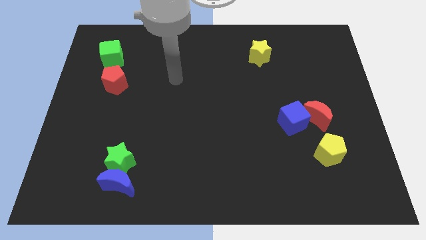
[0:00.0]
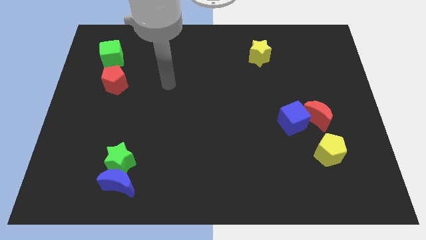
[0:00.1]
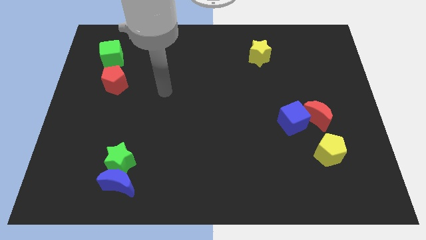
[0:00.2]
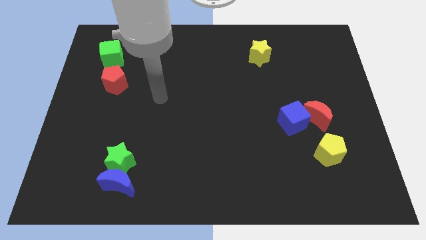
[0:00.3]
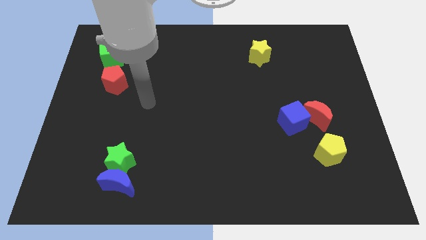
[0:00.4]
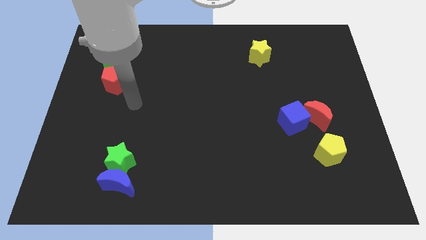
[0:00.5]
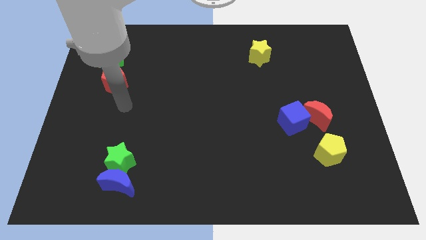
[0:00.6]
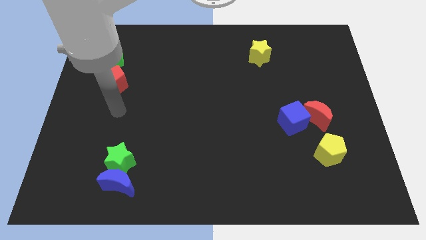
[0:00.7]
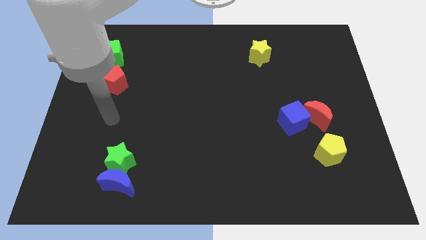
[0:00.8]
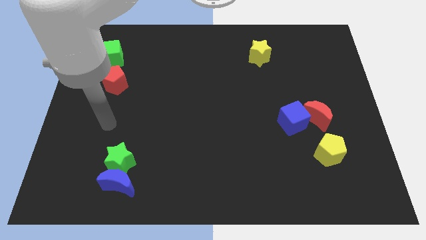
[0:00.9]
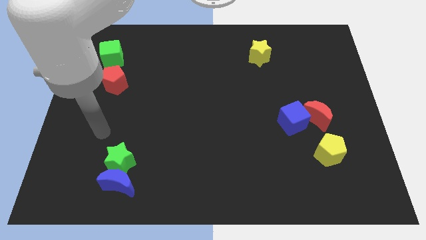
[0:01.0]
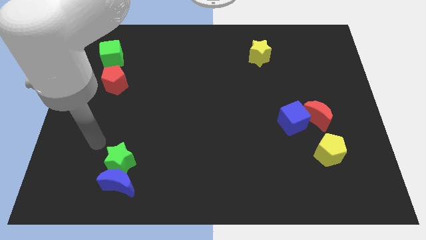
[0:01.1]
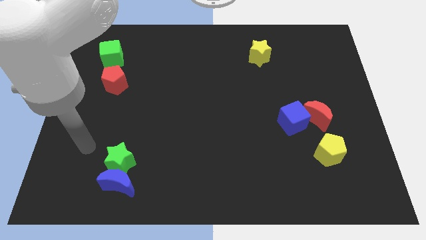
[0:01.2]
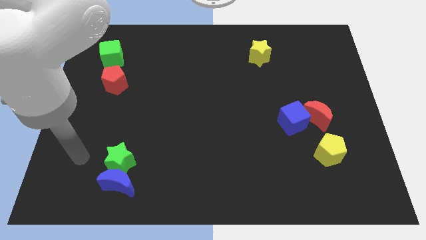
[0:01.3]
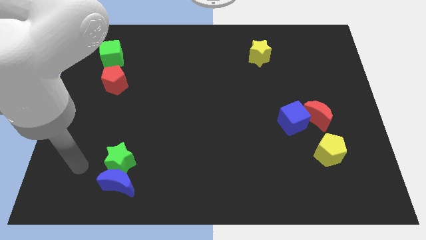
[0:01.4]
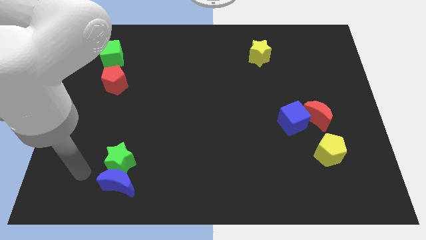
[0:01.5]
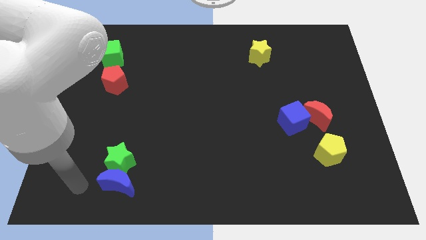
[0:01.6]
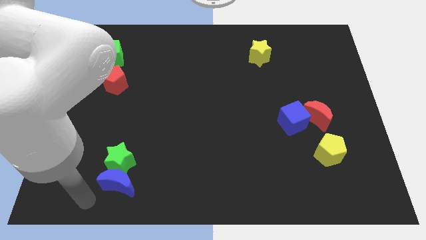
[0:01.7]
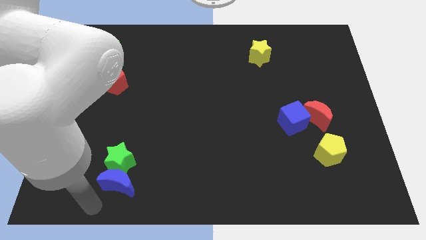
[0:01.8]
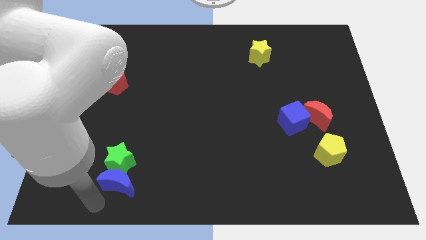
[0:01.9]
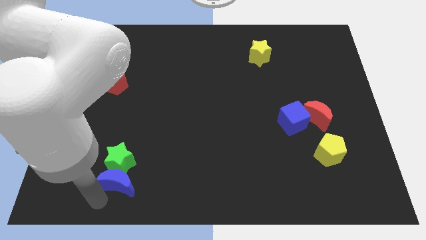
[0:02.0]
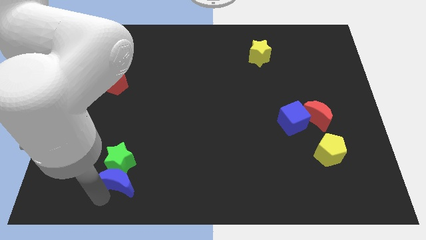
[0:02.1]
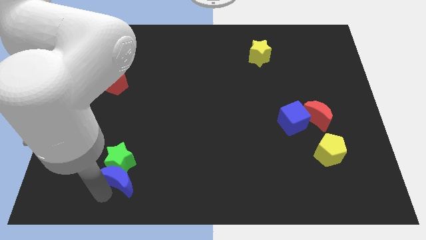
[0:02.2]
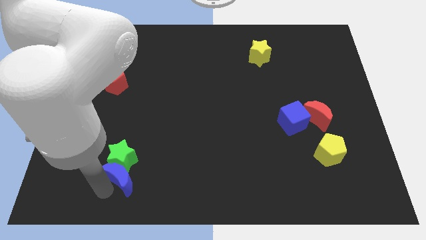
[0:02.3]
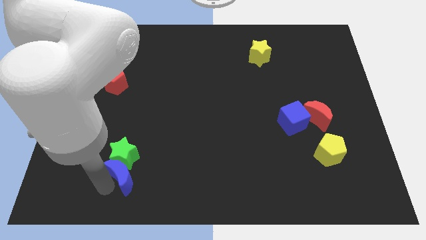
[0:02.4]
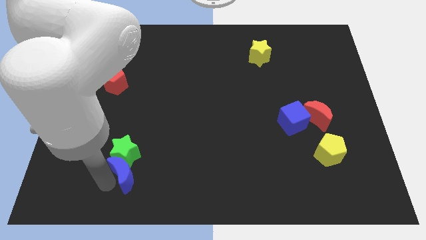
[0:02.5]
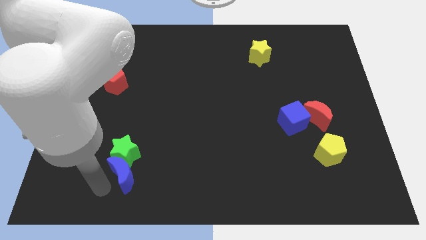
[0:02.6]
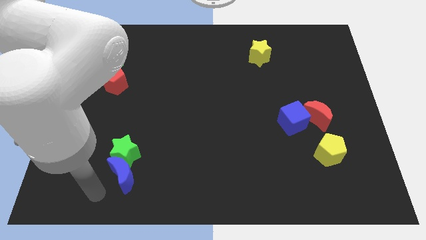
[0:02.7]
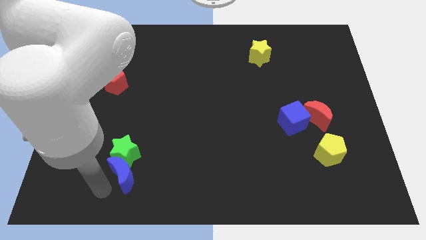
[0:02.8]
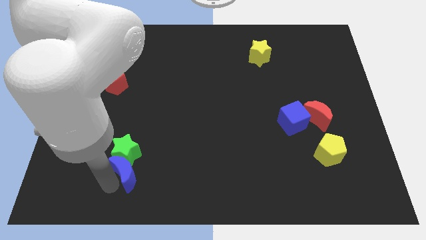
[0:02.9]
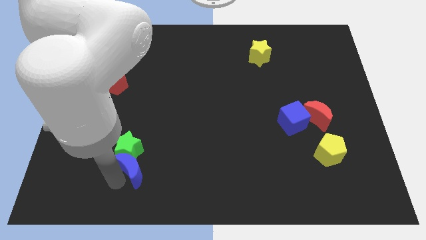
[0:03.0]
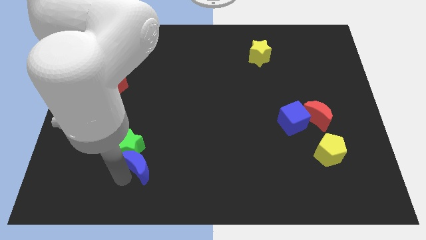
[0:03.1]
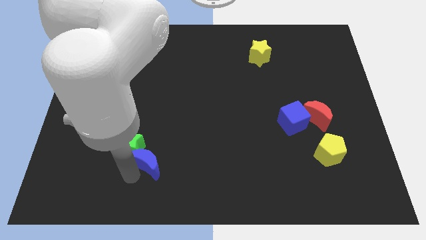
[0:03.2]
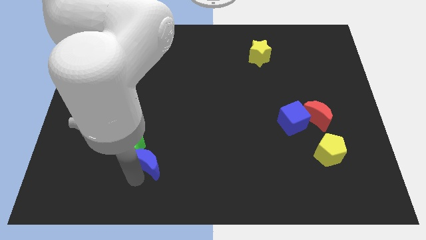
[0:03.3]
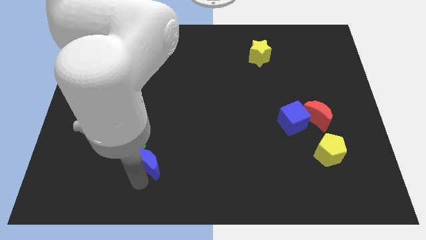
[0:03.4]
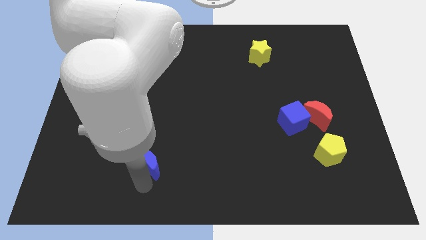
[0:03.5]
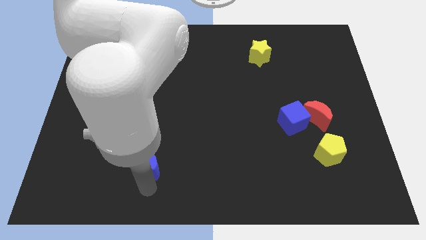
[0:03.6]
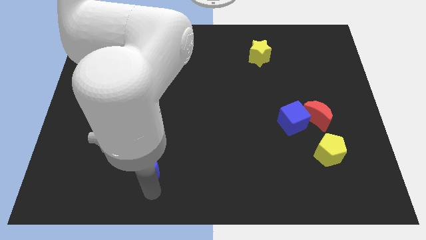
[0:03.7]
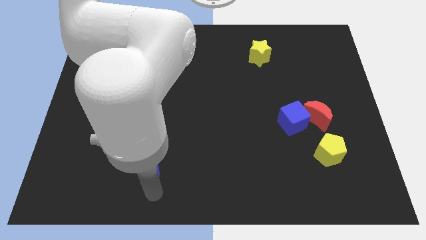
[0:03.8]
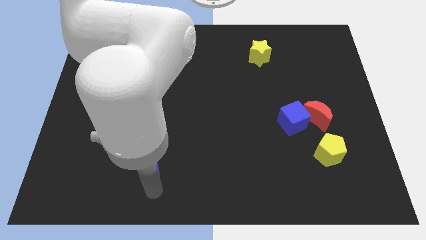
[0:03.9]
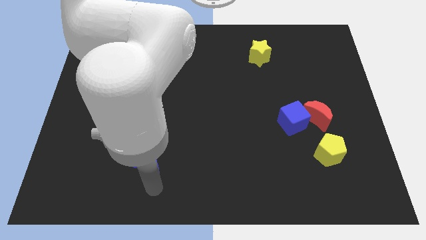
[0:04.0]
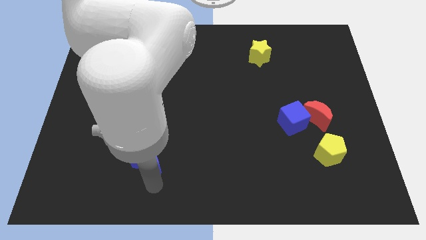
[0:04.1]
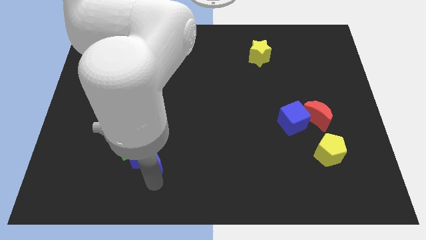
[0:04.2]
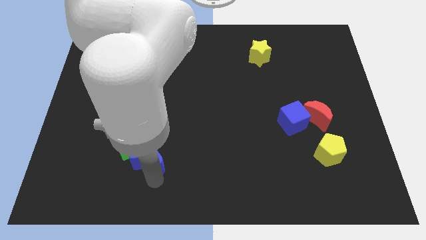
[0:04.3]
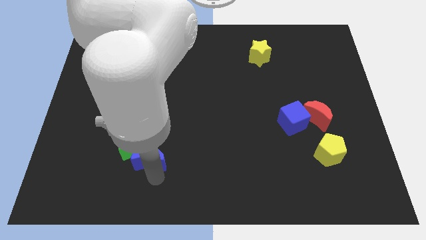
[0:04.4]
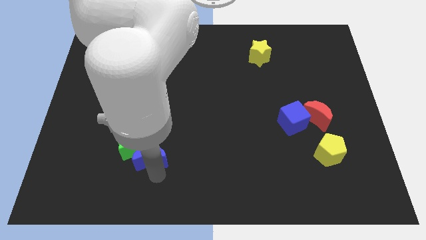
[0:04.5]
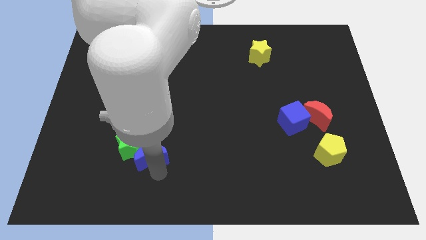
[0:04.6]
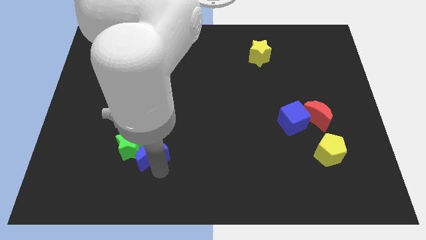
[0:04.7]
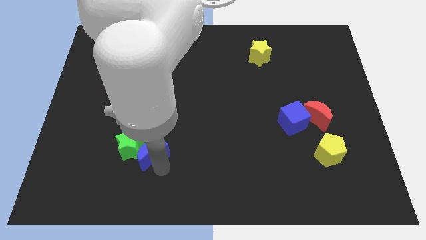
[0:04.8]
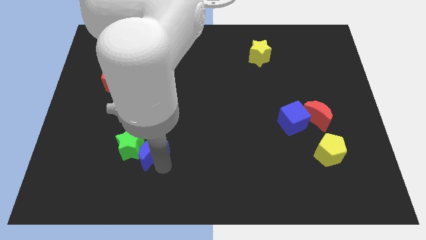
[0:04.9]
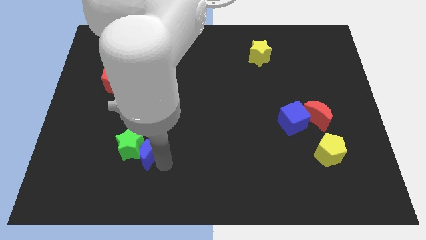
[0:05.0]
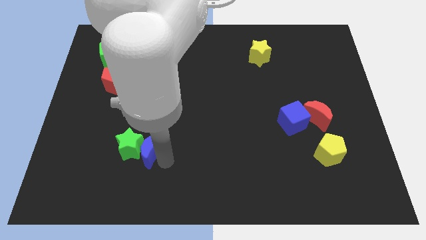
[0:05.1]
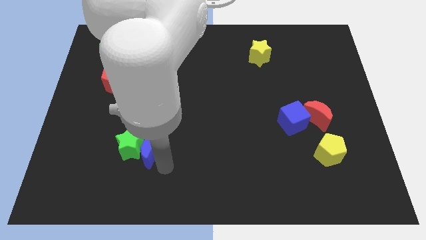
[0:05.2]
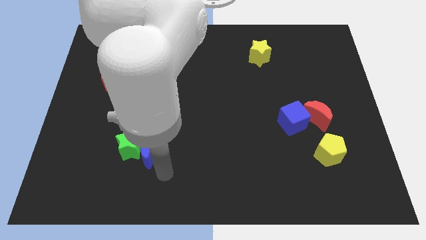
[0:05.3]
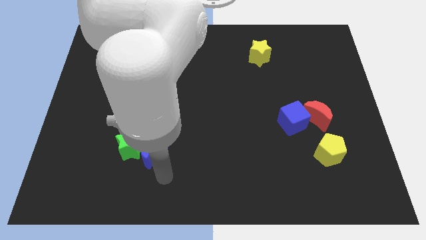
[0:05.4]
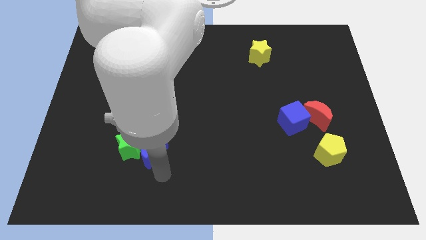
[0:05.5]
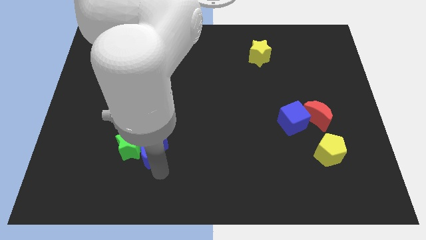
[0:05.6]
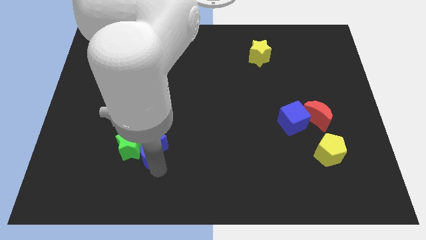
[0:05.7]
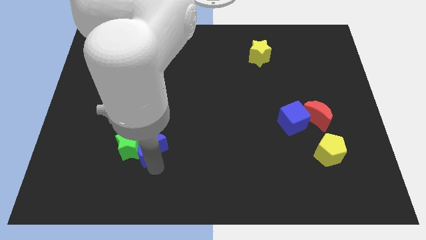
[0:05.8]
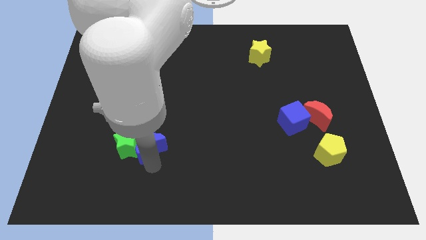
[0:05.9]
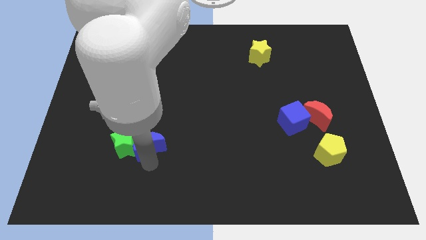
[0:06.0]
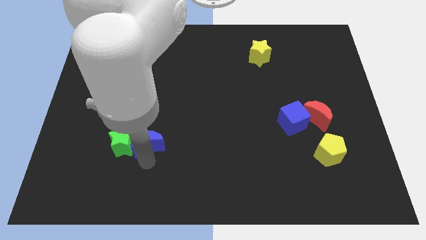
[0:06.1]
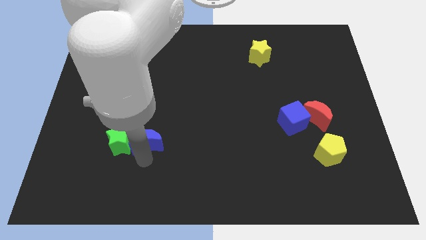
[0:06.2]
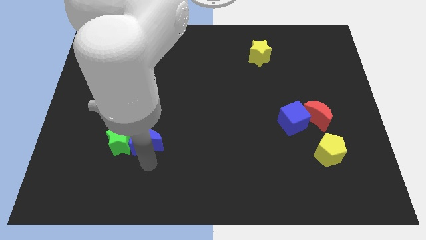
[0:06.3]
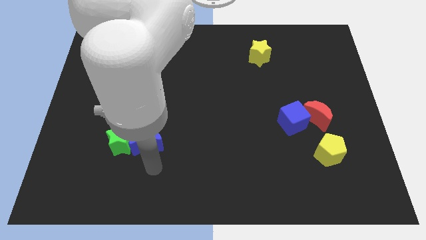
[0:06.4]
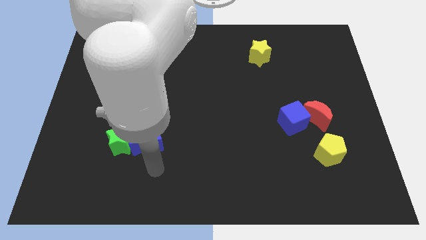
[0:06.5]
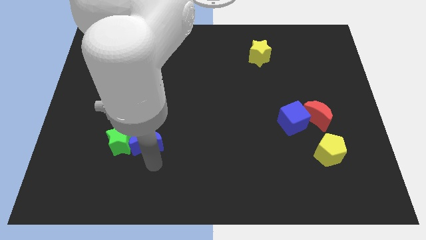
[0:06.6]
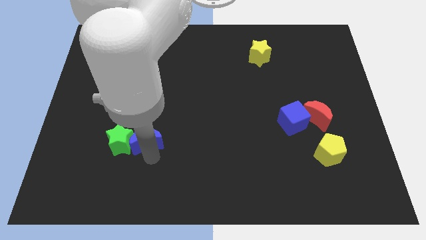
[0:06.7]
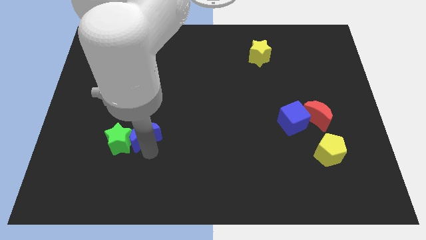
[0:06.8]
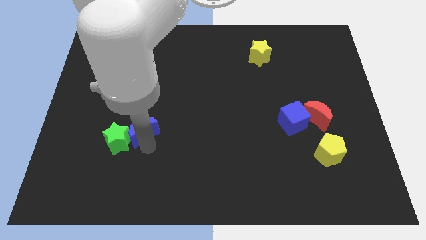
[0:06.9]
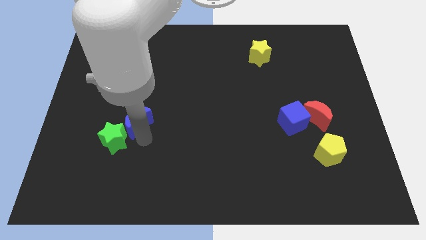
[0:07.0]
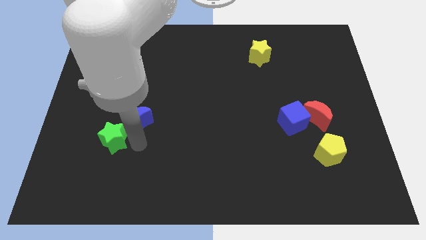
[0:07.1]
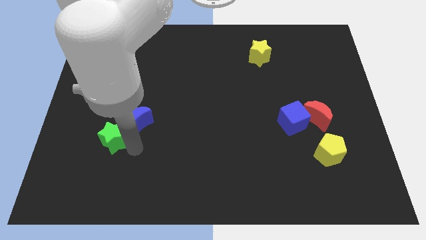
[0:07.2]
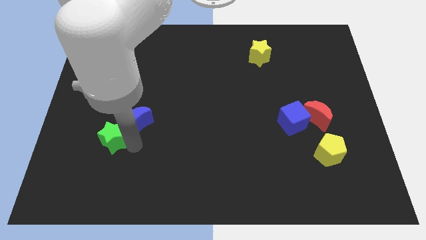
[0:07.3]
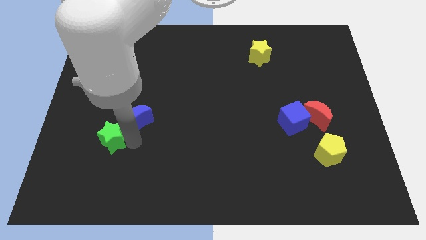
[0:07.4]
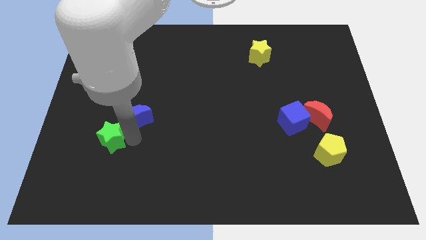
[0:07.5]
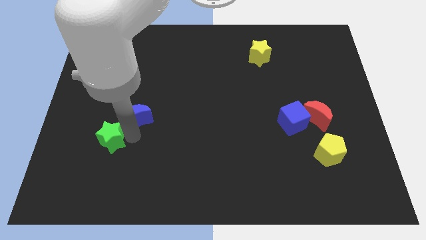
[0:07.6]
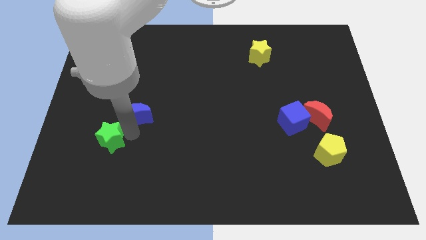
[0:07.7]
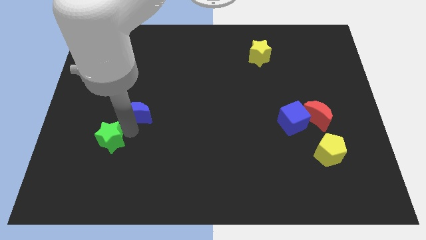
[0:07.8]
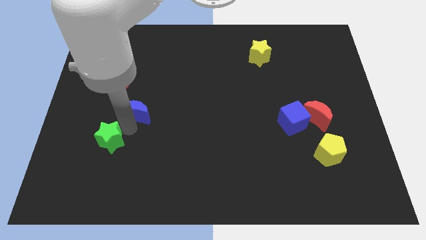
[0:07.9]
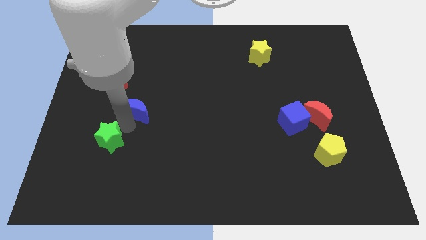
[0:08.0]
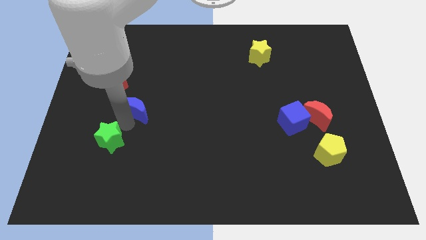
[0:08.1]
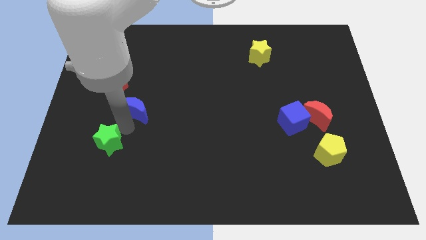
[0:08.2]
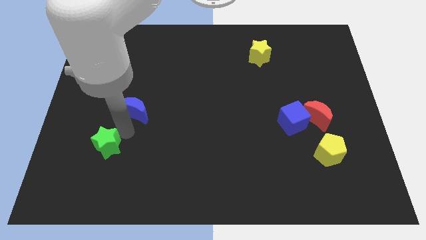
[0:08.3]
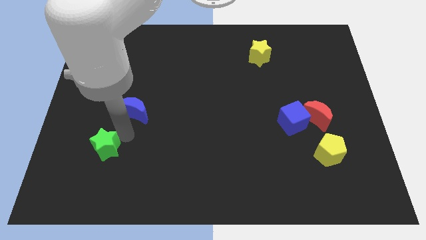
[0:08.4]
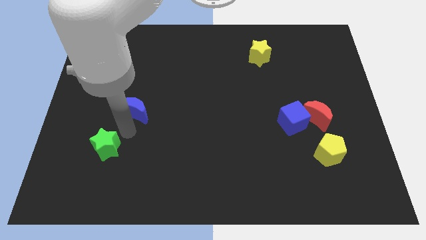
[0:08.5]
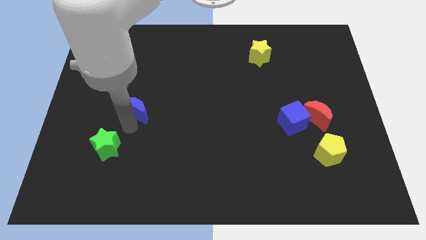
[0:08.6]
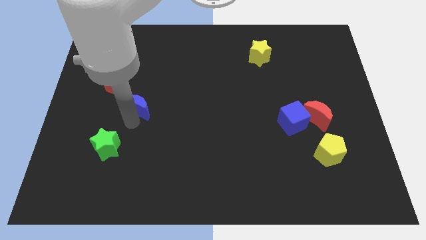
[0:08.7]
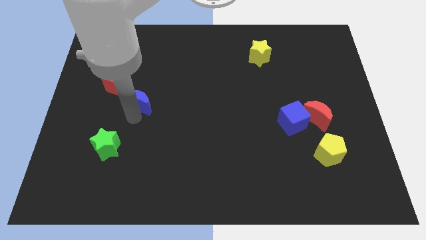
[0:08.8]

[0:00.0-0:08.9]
move the blue moon upwards
